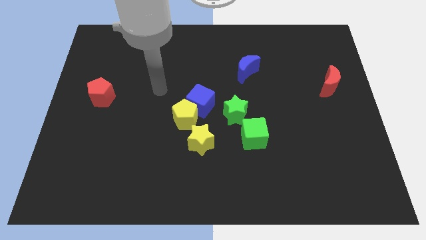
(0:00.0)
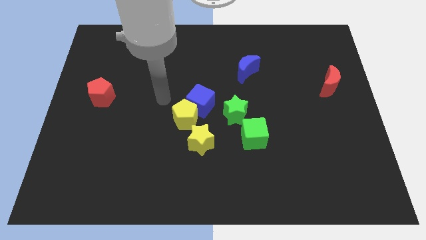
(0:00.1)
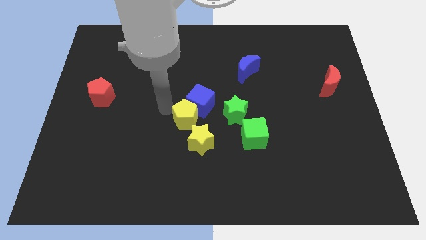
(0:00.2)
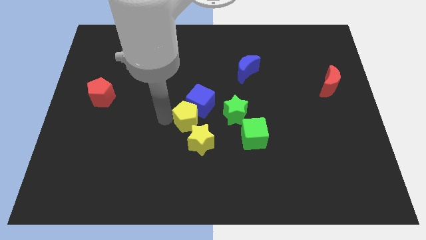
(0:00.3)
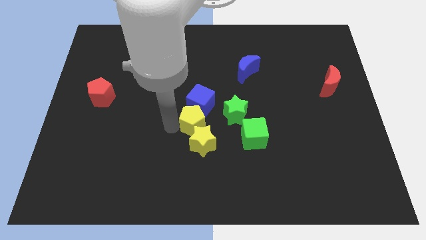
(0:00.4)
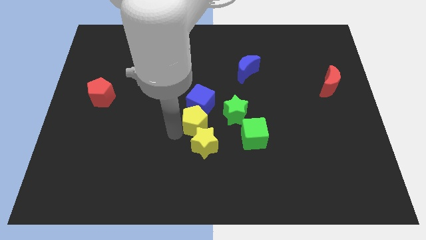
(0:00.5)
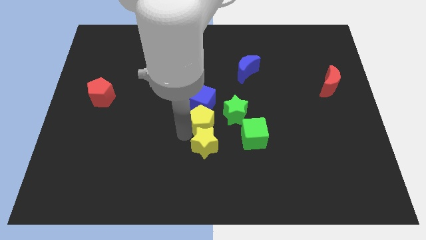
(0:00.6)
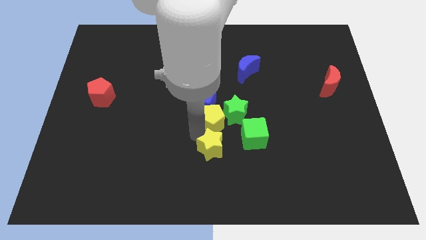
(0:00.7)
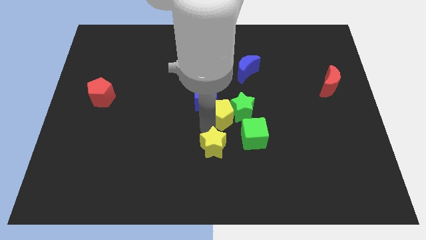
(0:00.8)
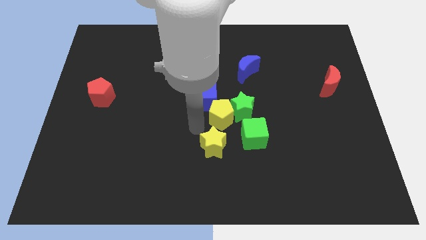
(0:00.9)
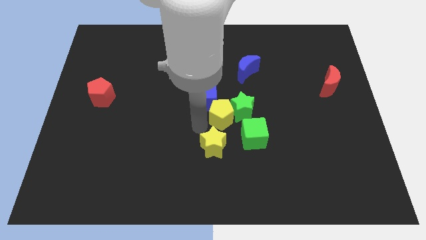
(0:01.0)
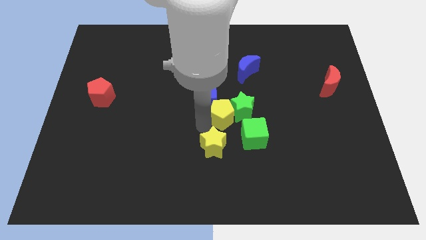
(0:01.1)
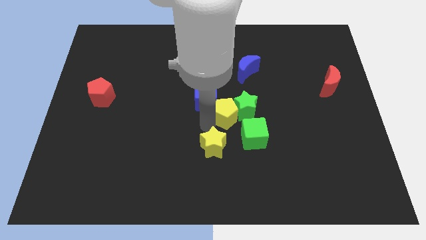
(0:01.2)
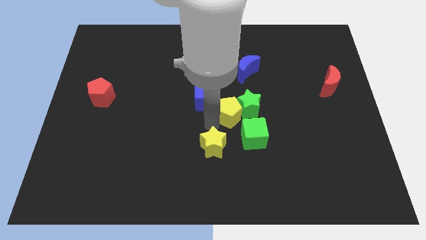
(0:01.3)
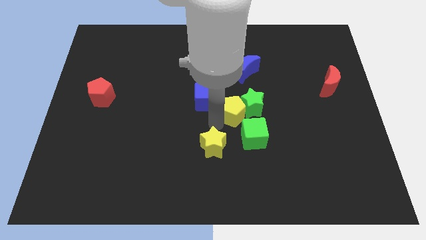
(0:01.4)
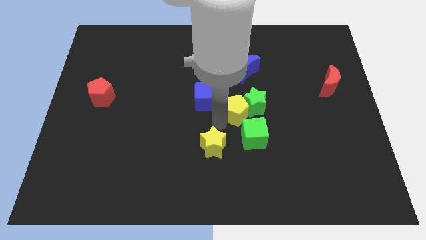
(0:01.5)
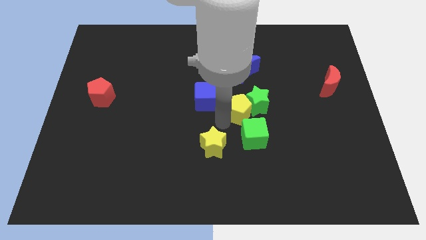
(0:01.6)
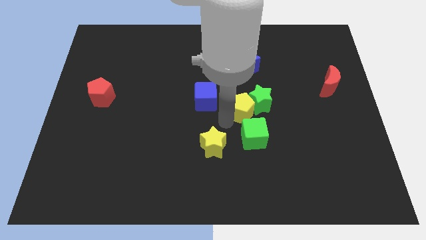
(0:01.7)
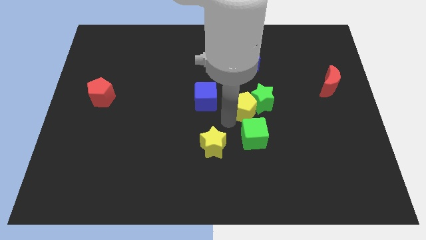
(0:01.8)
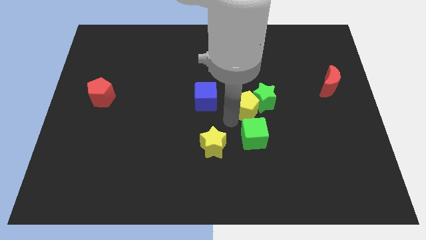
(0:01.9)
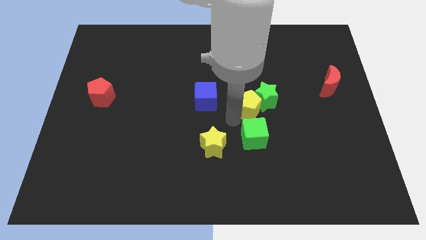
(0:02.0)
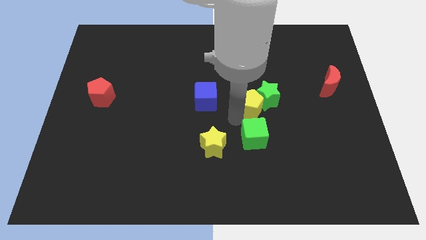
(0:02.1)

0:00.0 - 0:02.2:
pull the yellow pentagon apart from the blue cube and yellow star

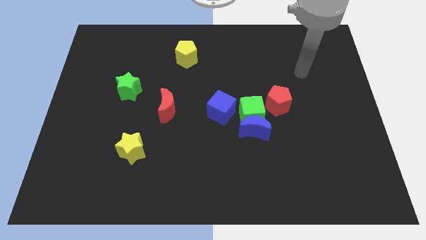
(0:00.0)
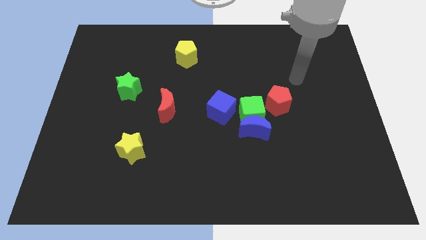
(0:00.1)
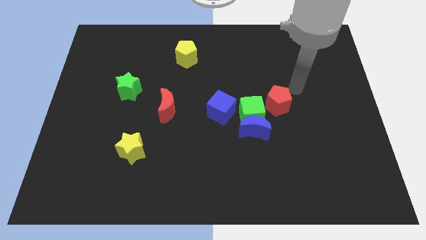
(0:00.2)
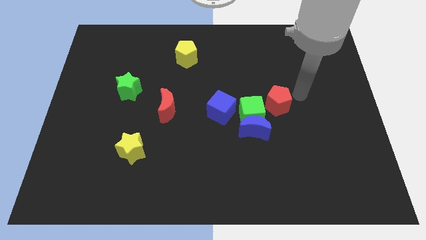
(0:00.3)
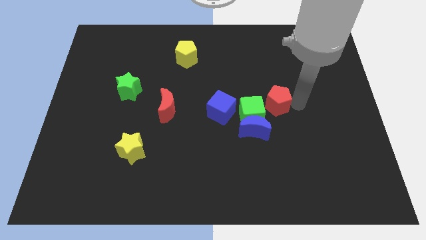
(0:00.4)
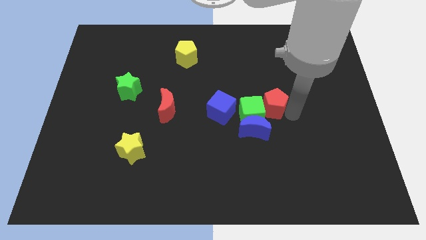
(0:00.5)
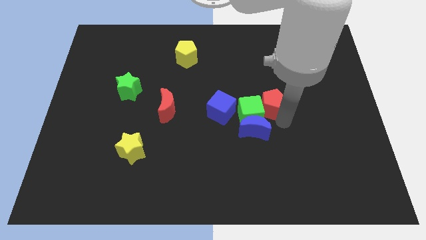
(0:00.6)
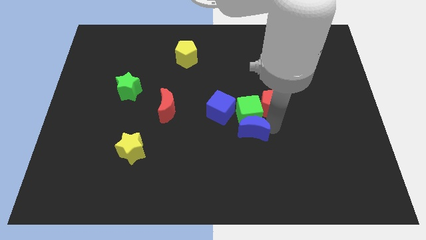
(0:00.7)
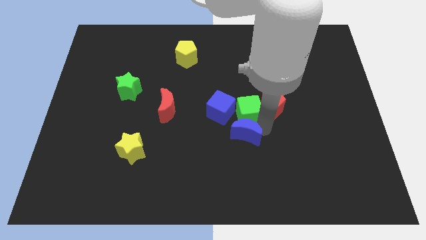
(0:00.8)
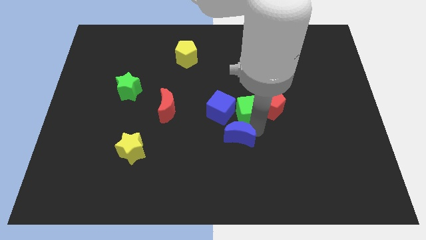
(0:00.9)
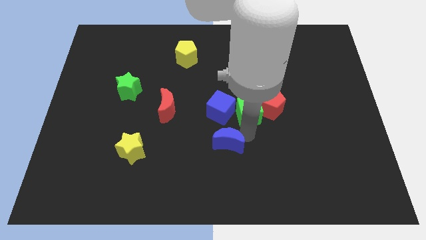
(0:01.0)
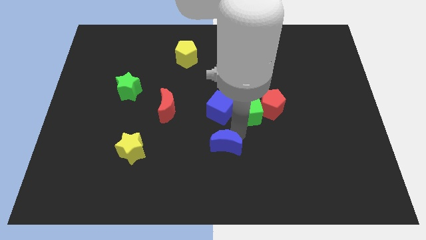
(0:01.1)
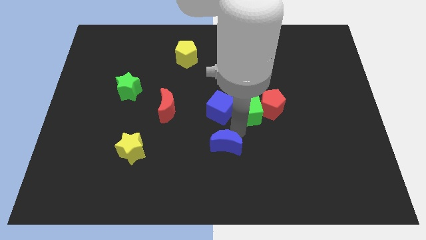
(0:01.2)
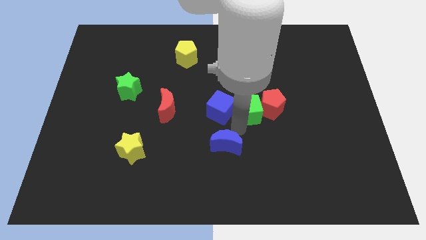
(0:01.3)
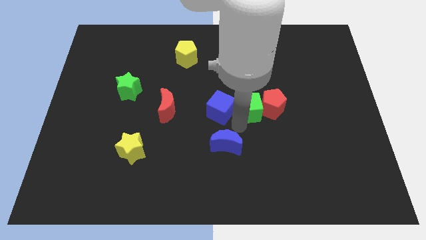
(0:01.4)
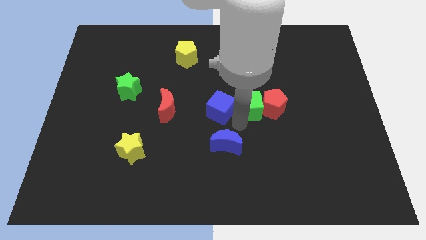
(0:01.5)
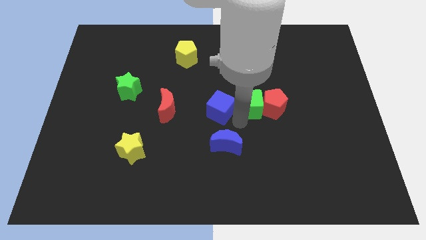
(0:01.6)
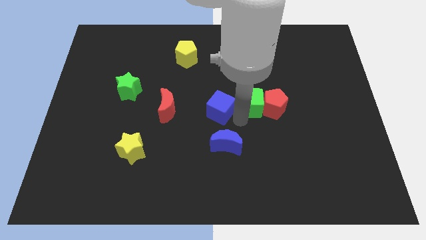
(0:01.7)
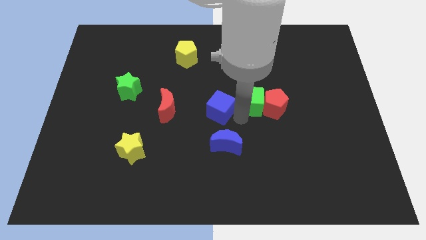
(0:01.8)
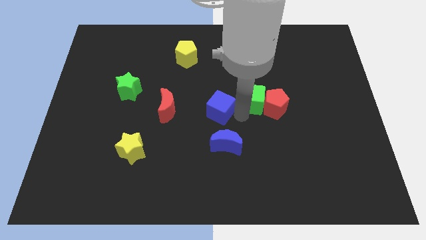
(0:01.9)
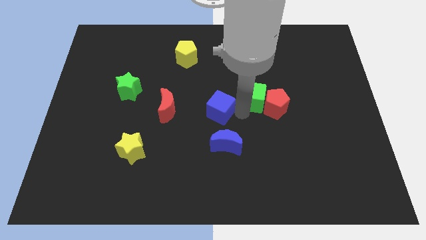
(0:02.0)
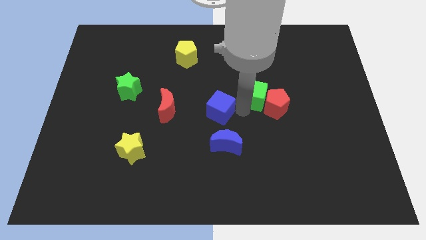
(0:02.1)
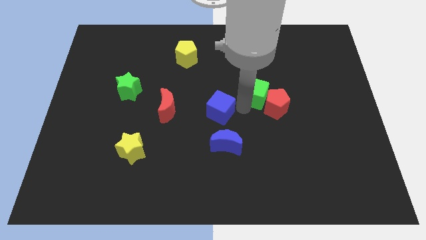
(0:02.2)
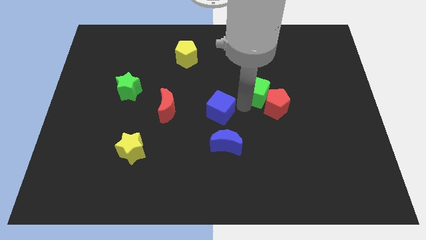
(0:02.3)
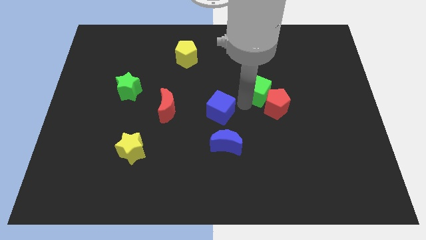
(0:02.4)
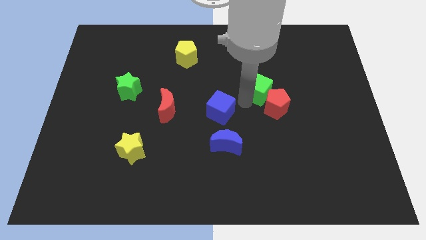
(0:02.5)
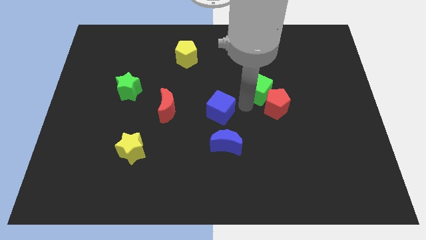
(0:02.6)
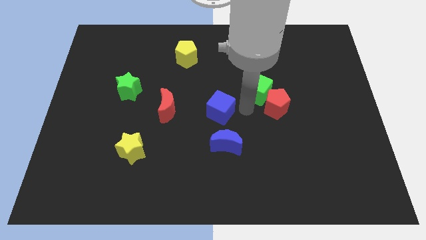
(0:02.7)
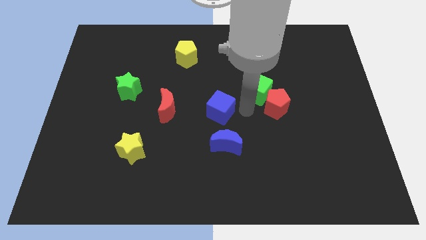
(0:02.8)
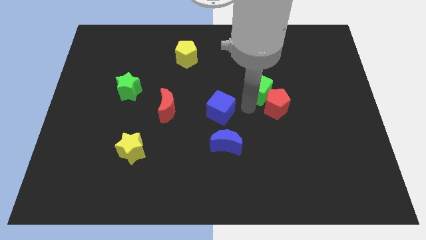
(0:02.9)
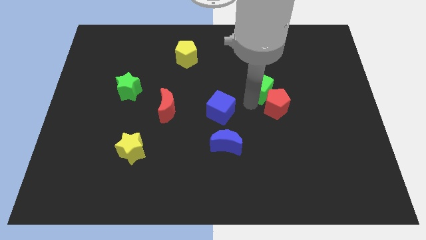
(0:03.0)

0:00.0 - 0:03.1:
move the green cube away from the blue moon, red pentagon, and blue cube

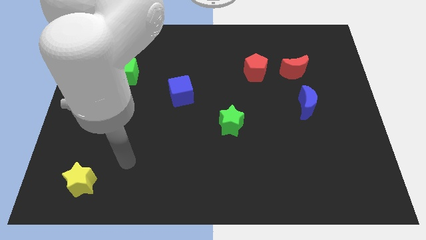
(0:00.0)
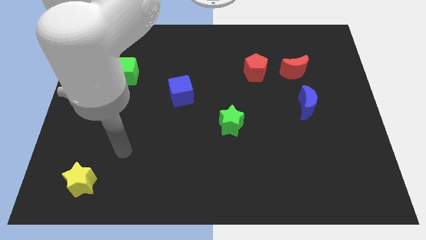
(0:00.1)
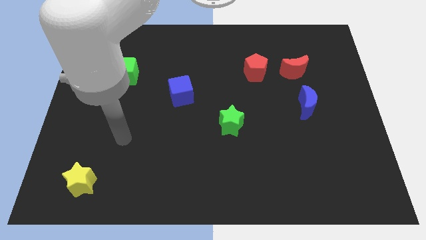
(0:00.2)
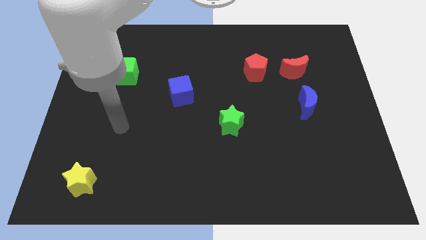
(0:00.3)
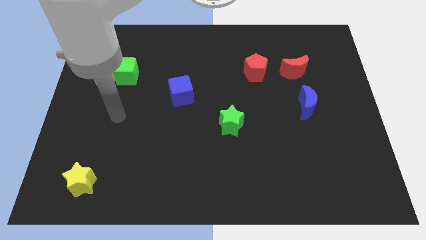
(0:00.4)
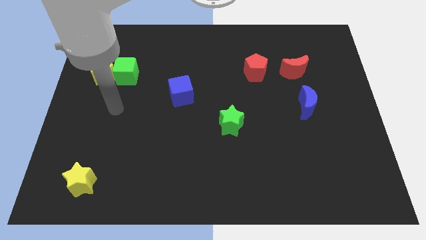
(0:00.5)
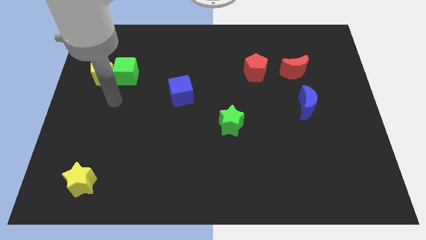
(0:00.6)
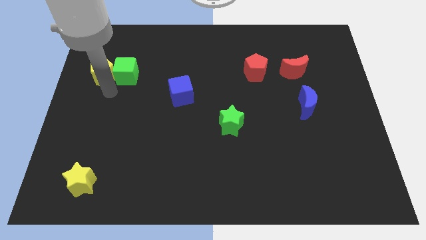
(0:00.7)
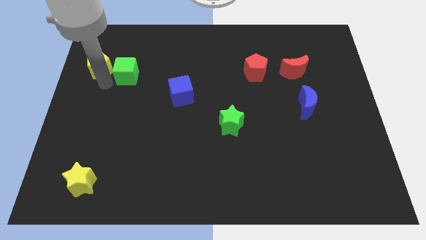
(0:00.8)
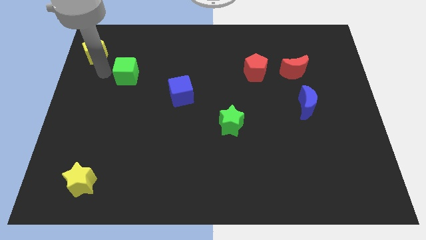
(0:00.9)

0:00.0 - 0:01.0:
separate the green cube from the yellow pentagon

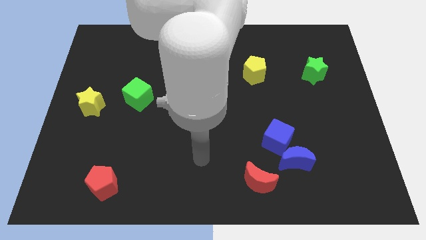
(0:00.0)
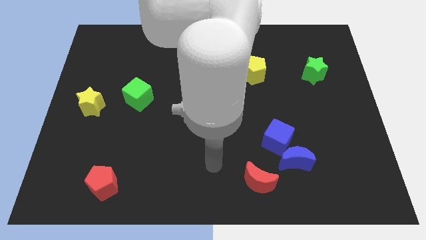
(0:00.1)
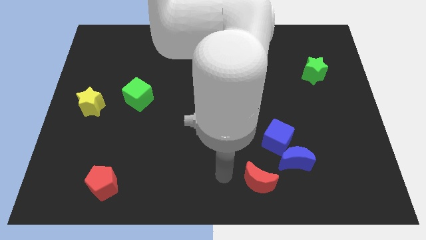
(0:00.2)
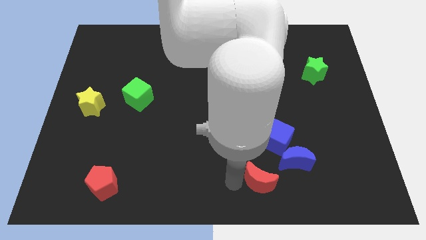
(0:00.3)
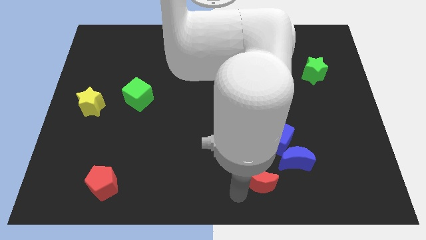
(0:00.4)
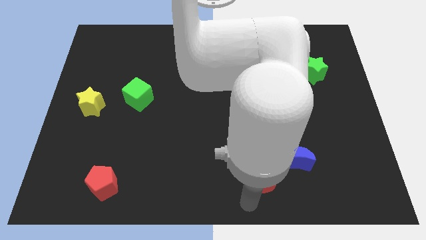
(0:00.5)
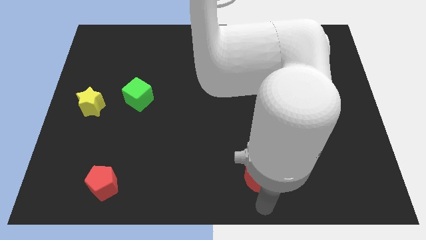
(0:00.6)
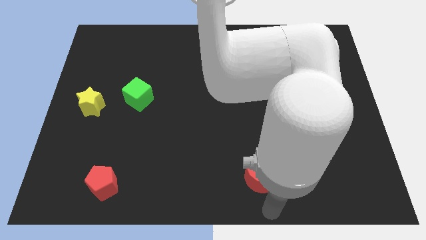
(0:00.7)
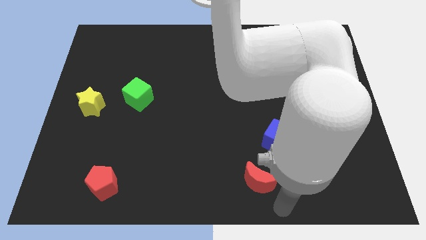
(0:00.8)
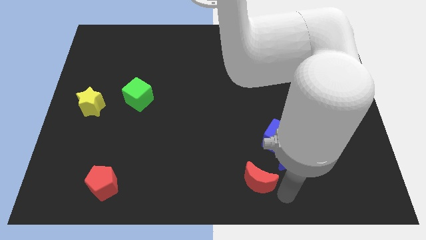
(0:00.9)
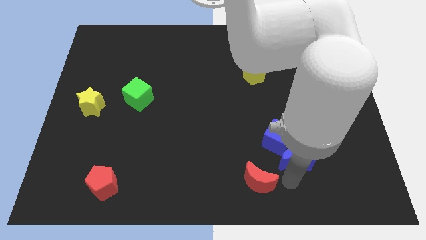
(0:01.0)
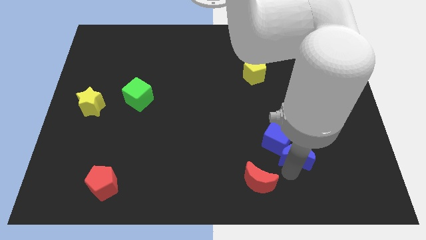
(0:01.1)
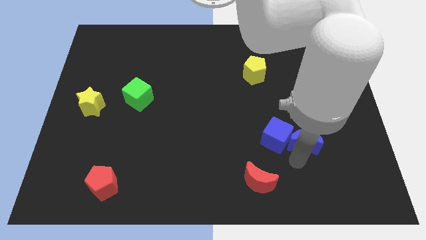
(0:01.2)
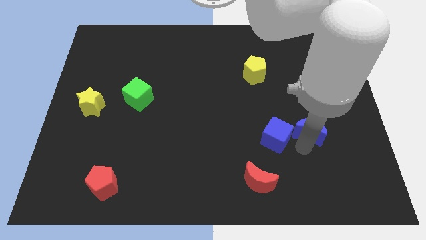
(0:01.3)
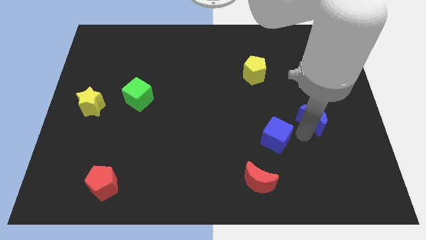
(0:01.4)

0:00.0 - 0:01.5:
pull the blue cube apart from the blue moon

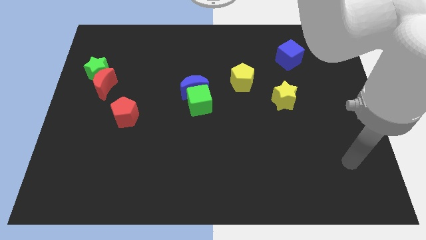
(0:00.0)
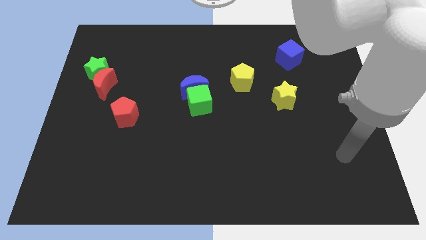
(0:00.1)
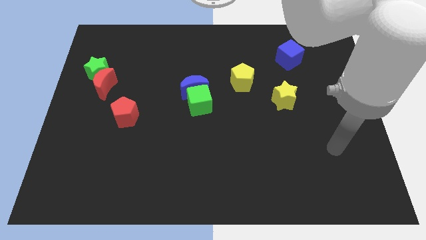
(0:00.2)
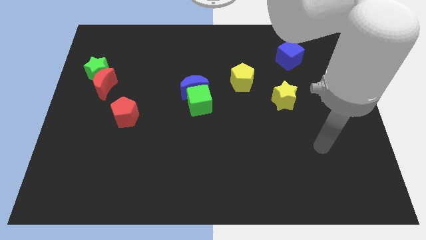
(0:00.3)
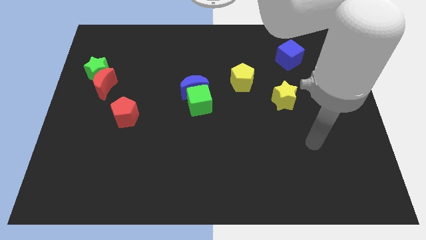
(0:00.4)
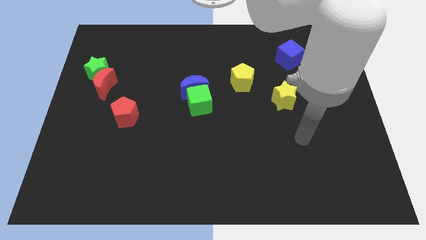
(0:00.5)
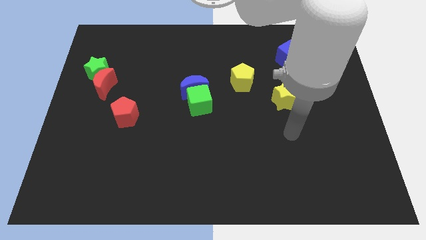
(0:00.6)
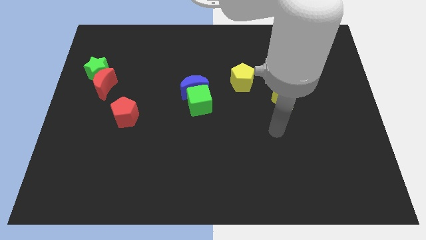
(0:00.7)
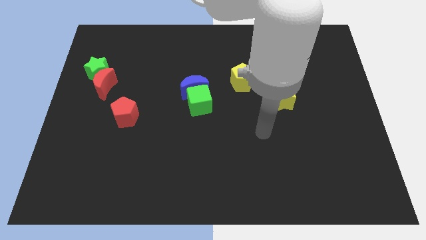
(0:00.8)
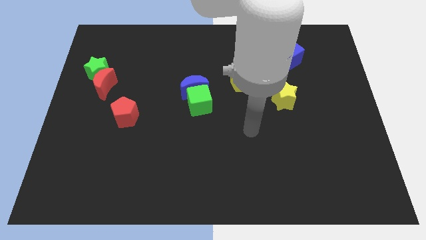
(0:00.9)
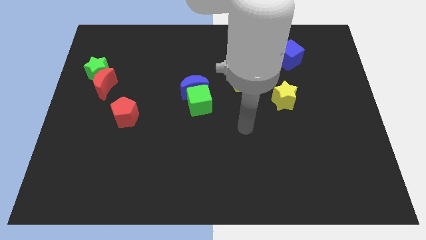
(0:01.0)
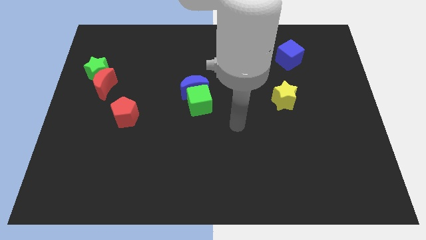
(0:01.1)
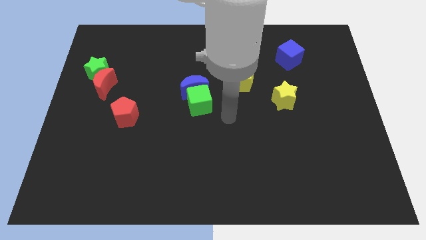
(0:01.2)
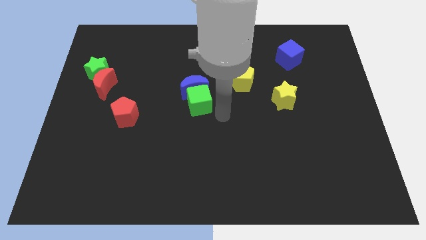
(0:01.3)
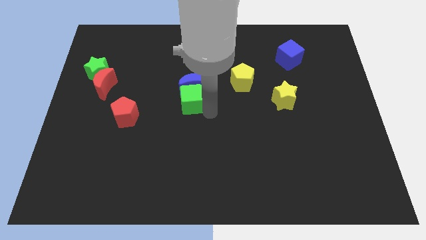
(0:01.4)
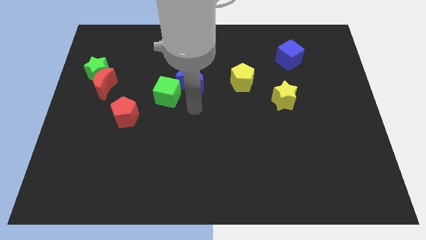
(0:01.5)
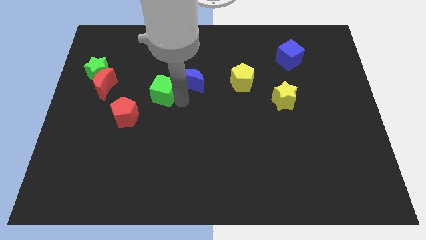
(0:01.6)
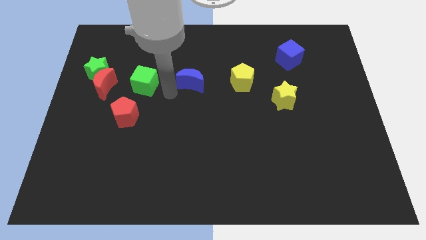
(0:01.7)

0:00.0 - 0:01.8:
pull the blue moon apart from the green cube
